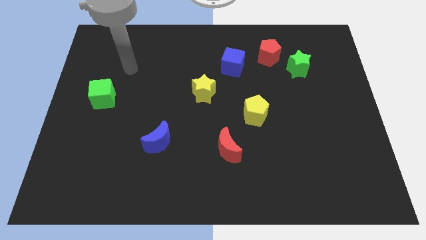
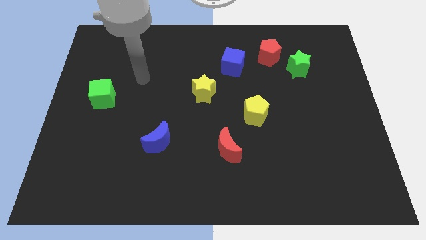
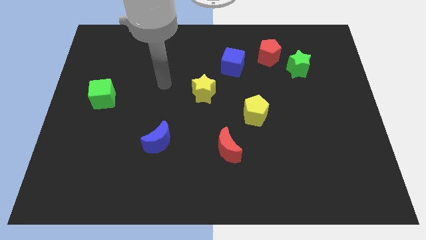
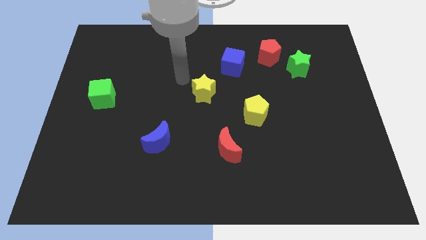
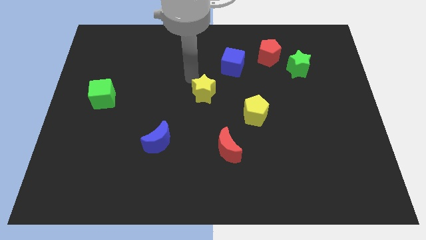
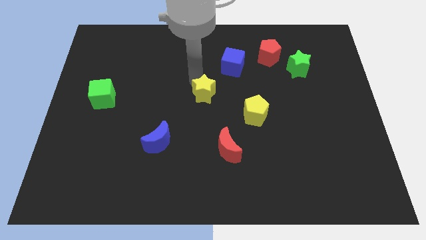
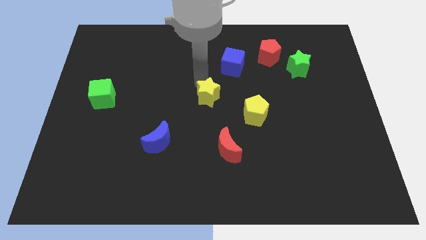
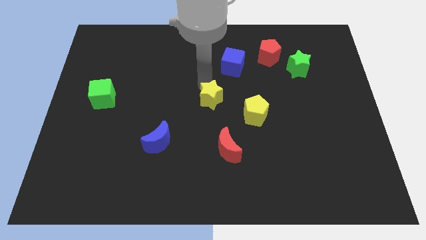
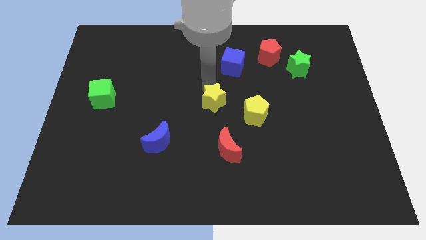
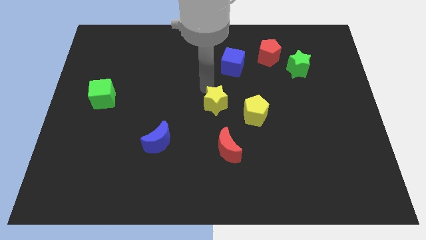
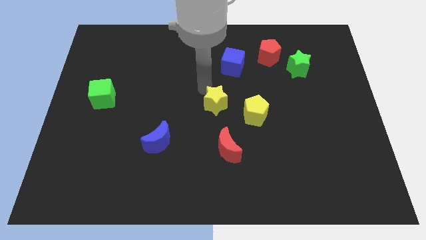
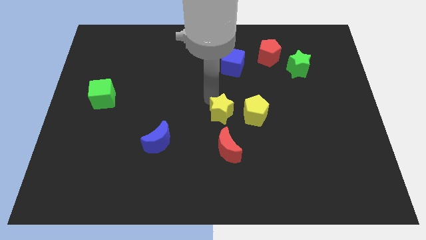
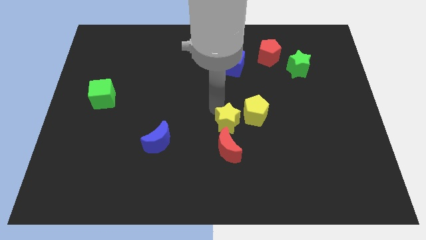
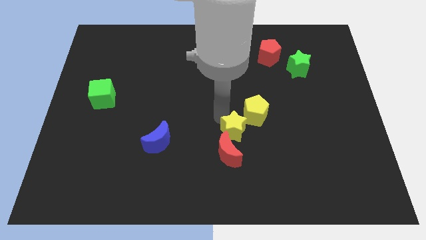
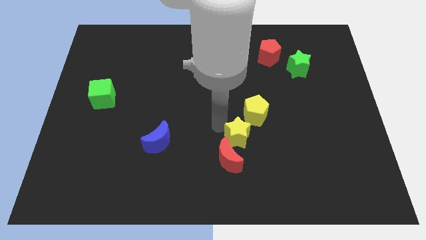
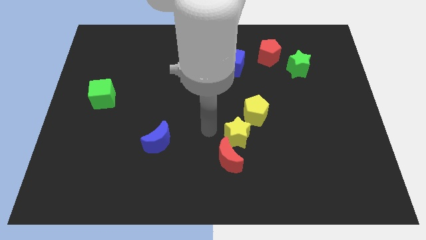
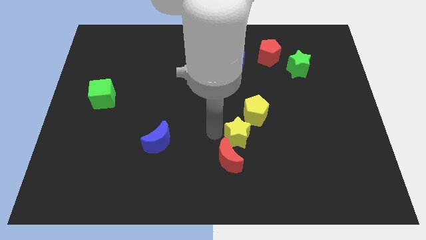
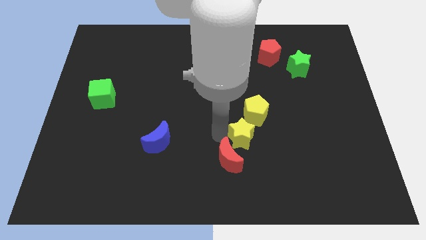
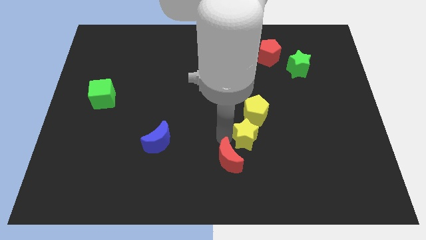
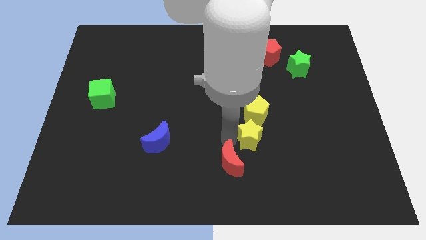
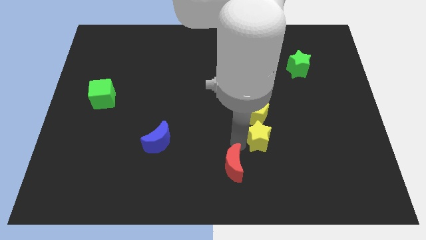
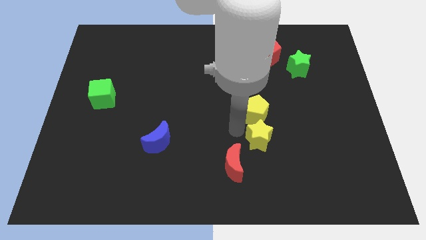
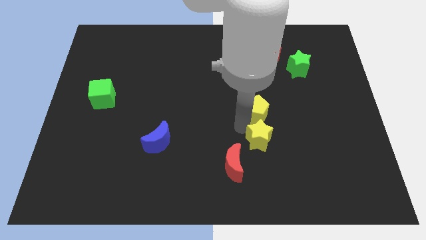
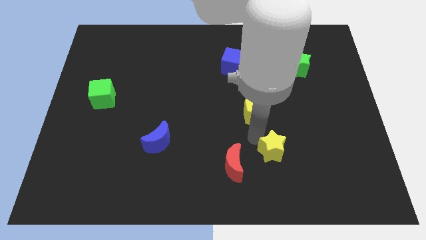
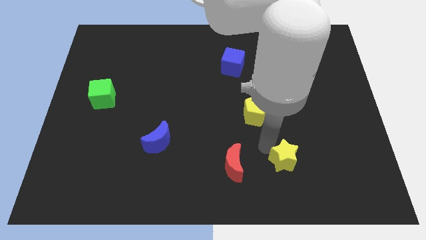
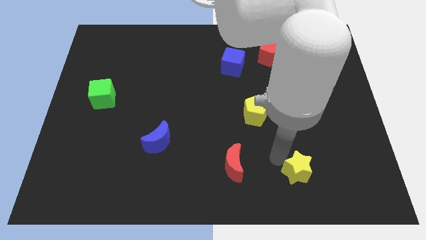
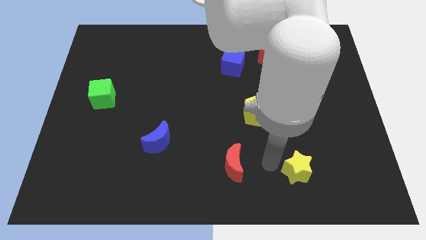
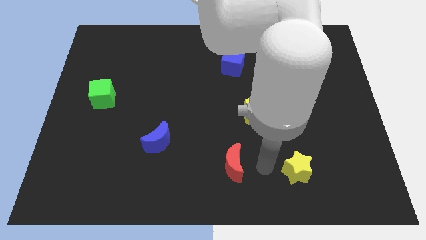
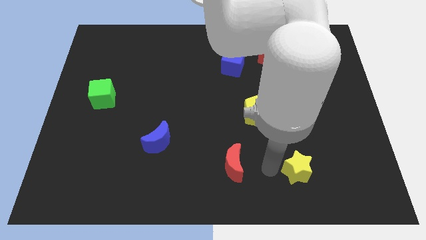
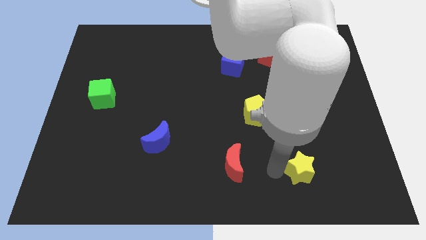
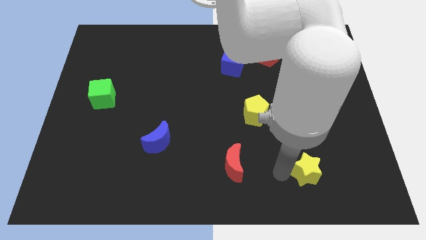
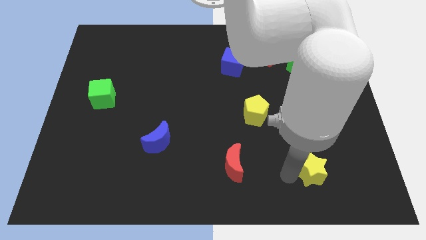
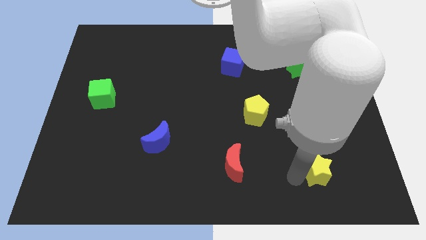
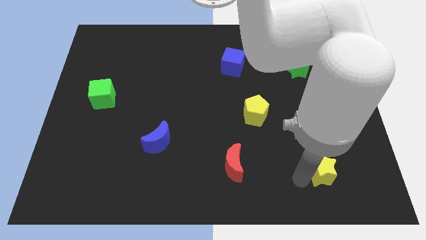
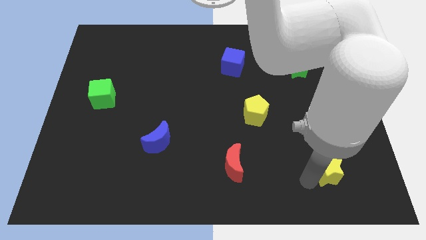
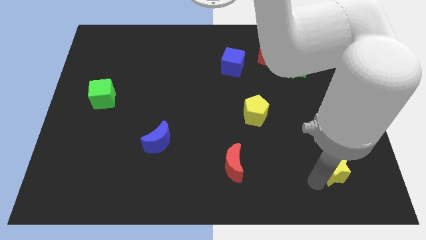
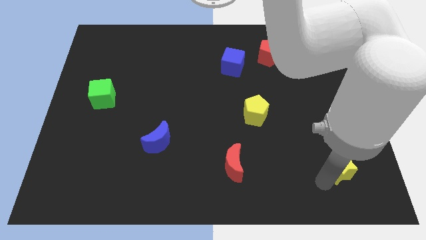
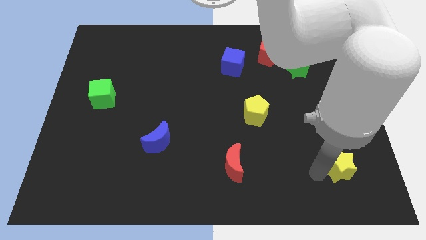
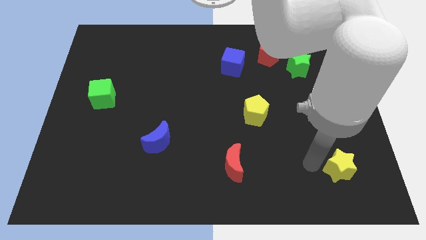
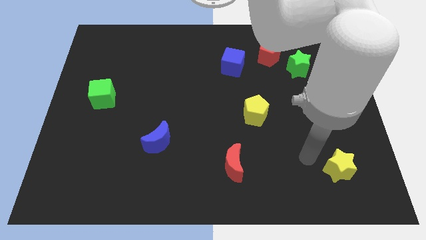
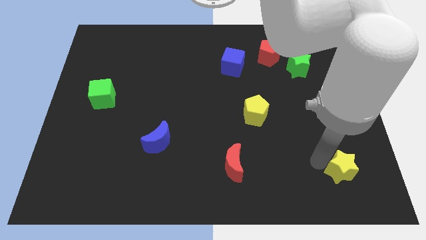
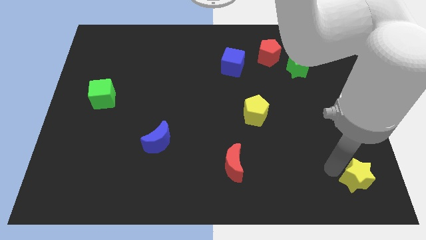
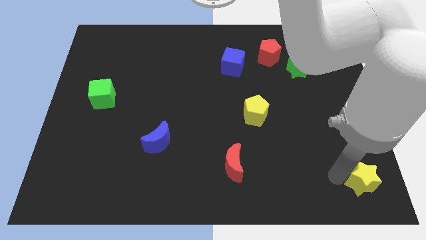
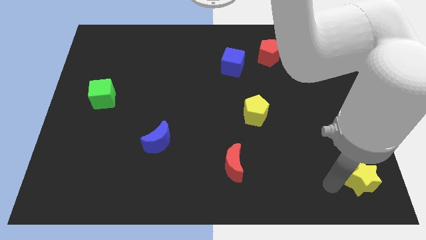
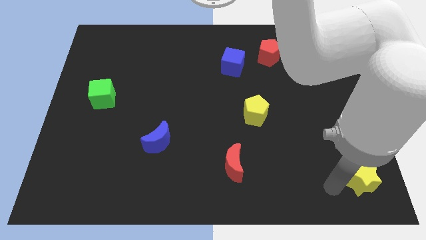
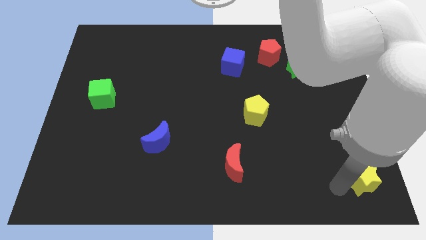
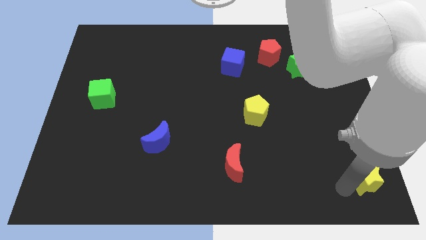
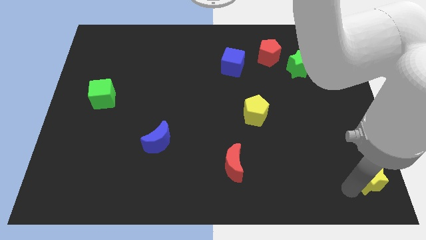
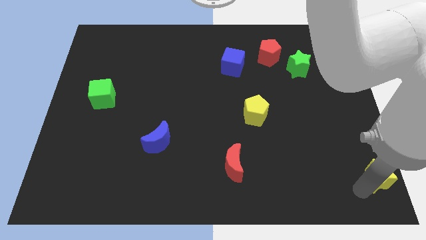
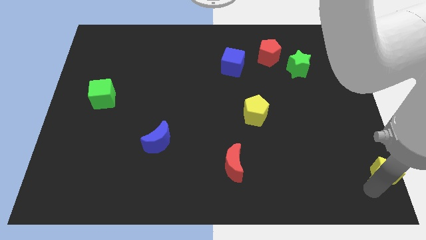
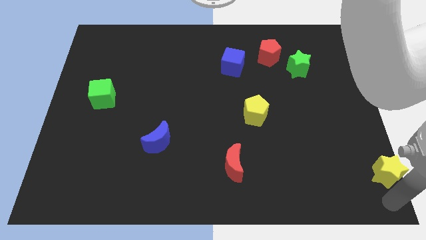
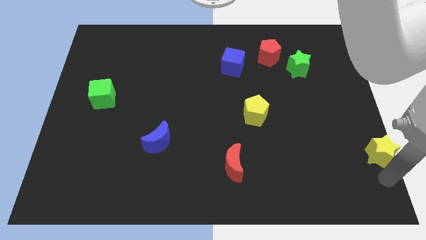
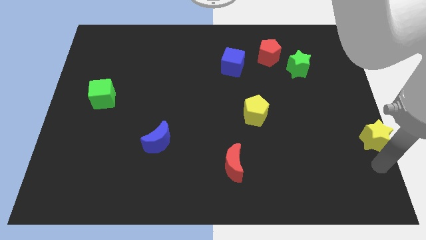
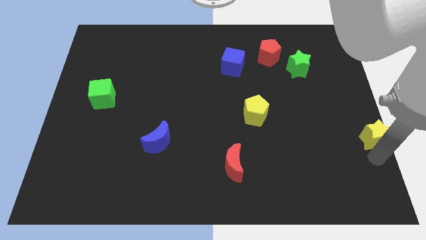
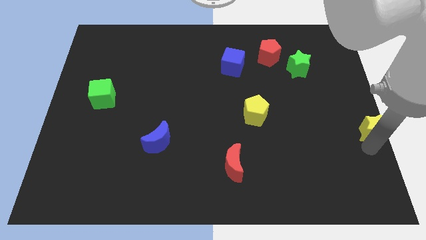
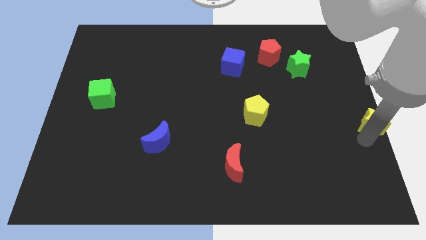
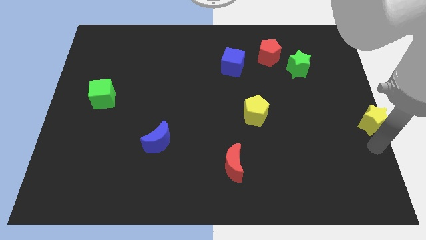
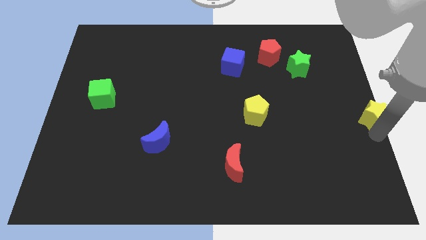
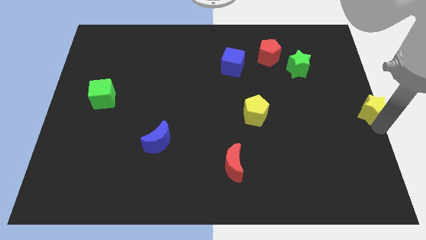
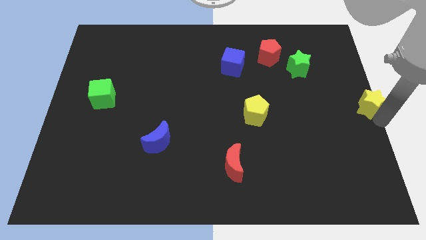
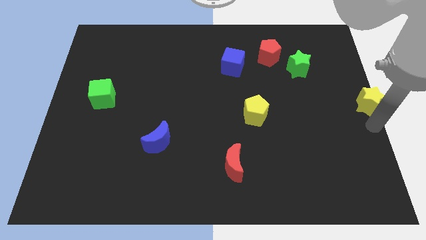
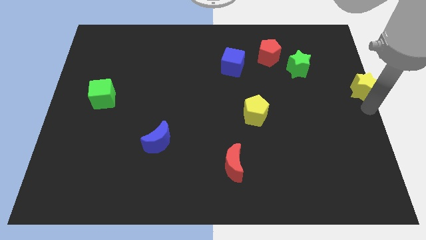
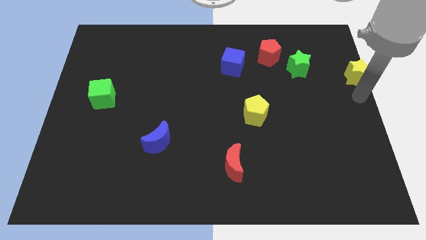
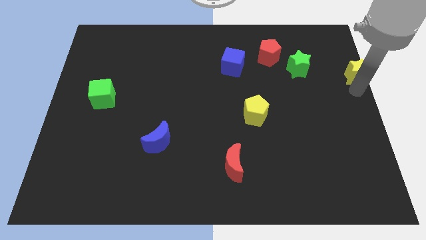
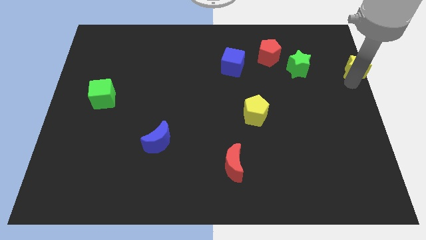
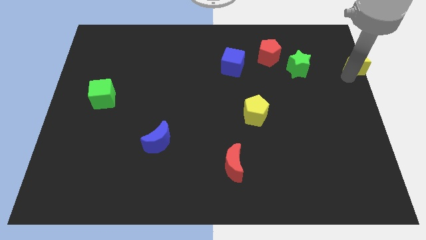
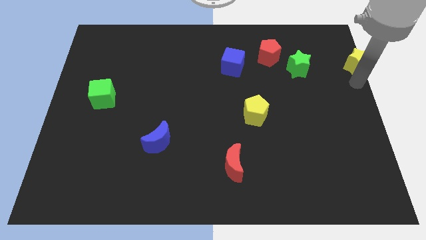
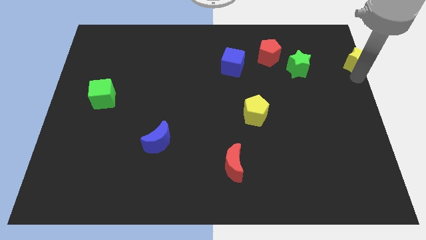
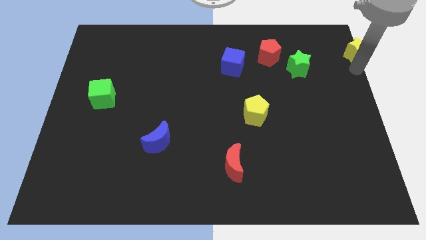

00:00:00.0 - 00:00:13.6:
put the yellow star to the top right corner
